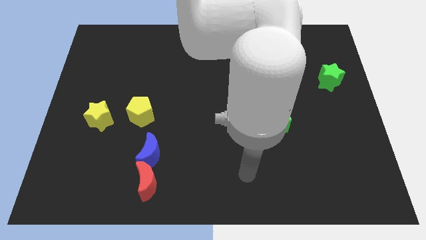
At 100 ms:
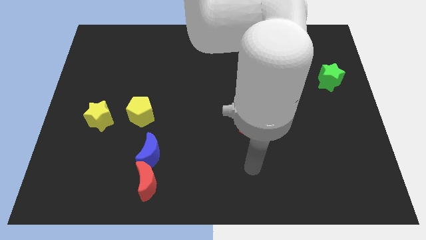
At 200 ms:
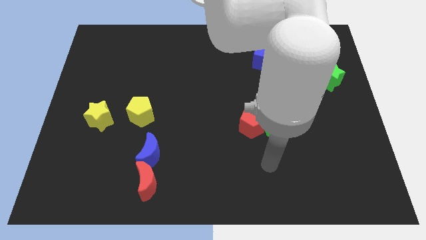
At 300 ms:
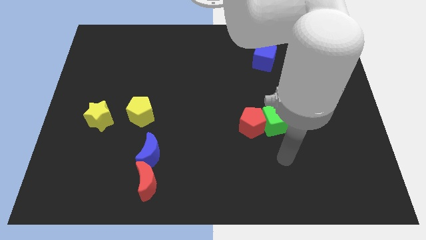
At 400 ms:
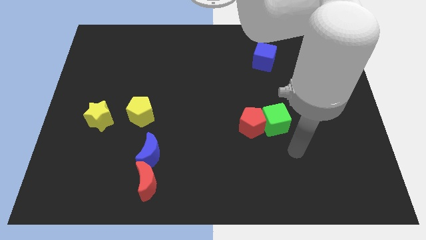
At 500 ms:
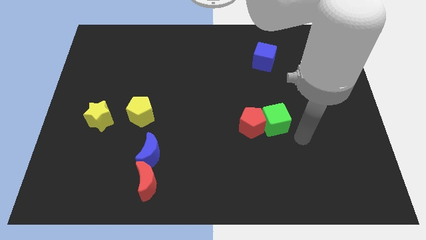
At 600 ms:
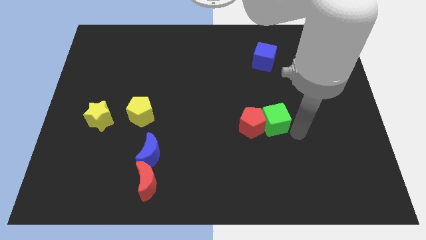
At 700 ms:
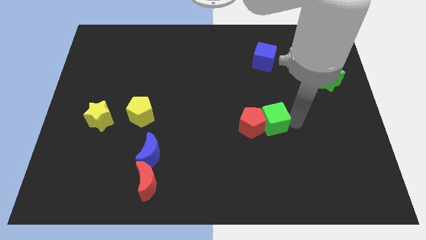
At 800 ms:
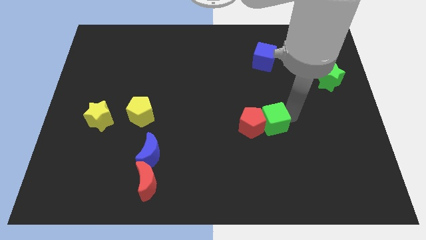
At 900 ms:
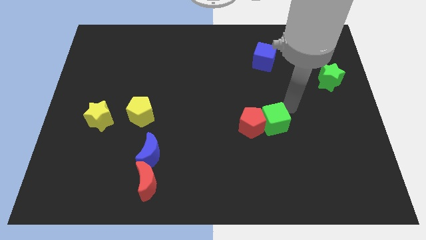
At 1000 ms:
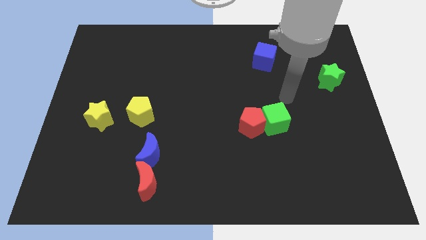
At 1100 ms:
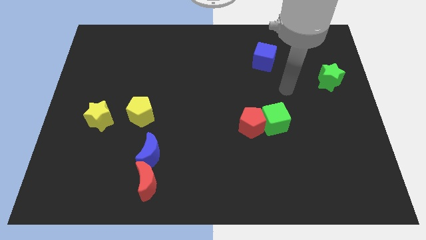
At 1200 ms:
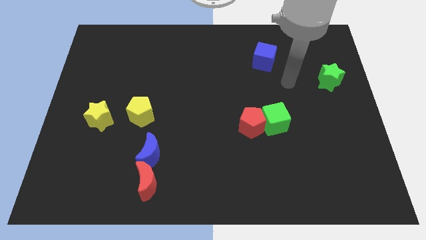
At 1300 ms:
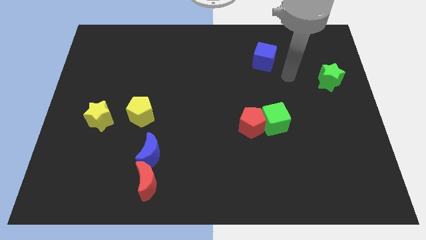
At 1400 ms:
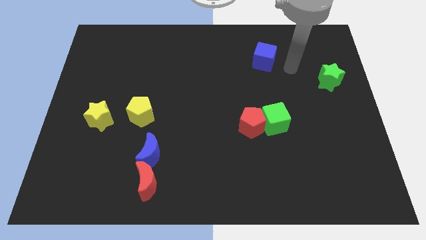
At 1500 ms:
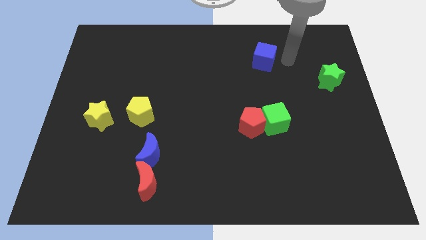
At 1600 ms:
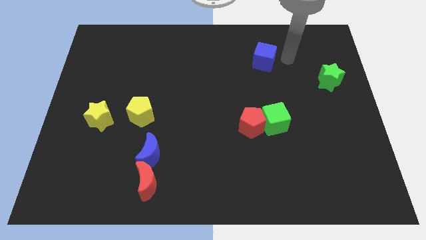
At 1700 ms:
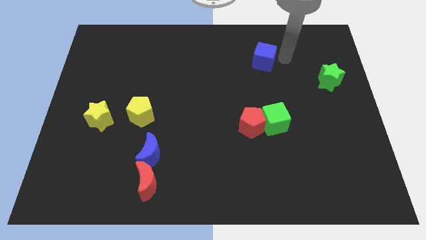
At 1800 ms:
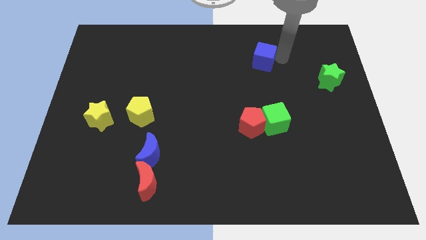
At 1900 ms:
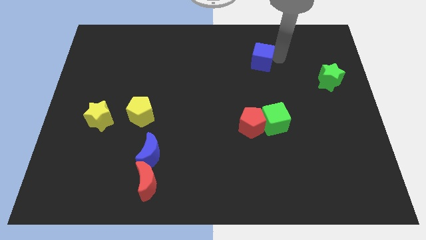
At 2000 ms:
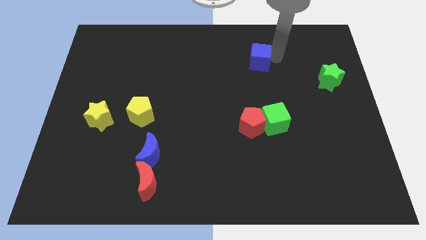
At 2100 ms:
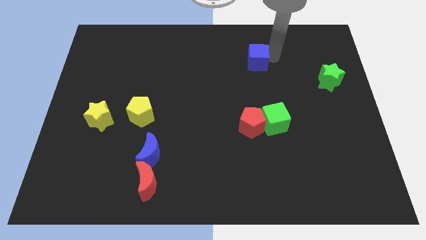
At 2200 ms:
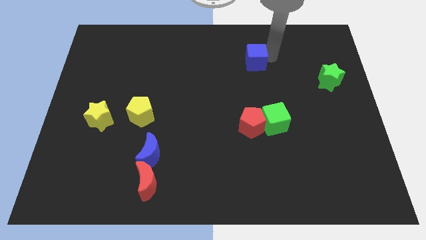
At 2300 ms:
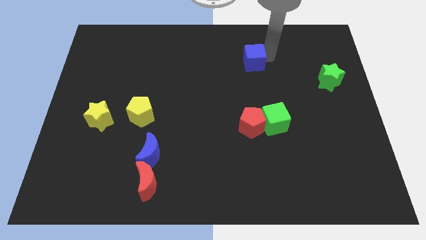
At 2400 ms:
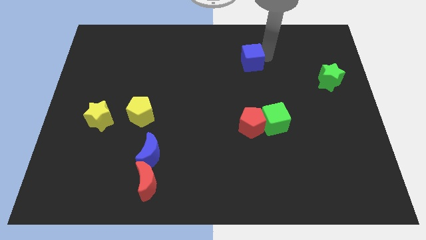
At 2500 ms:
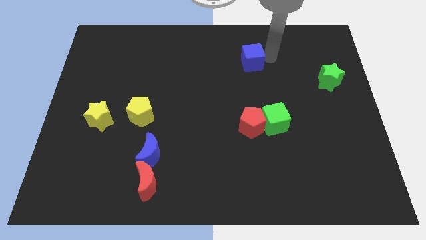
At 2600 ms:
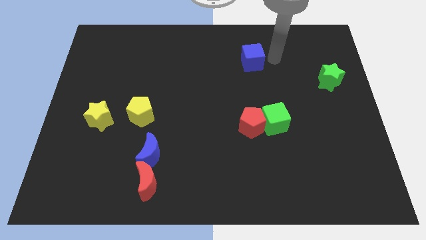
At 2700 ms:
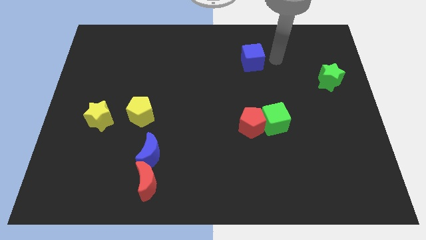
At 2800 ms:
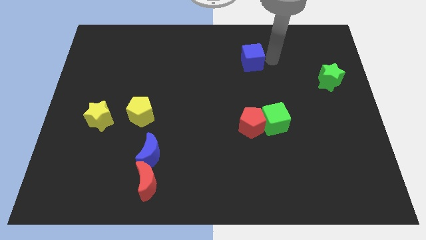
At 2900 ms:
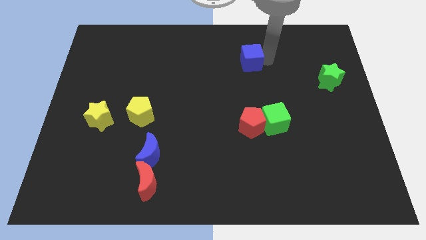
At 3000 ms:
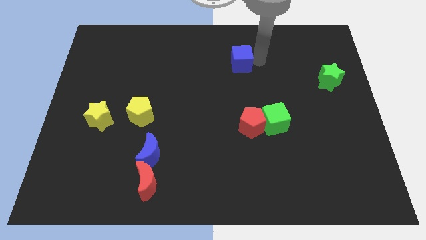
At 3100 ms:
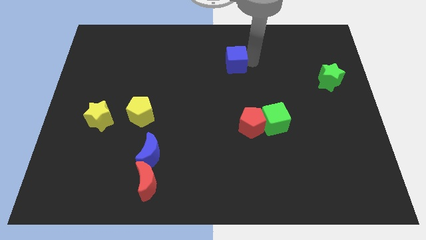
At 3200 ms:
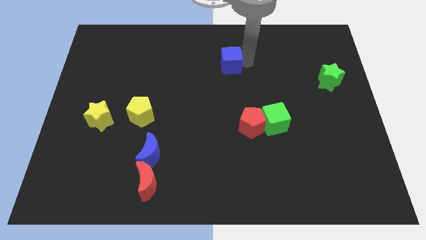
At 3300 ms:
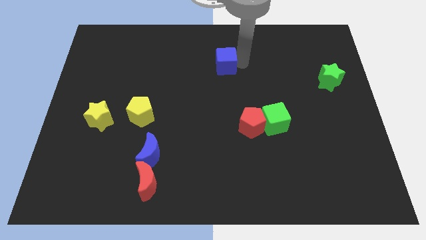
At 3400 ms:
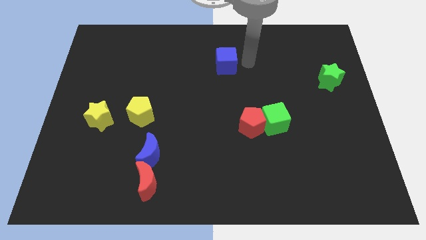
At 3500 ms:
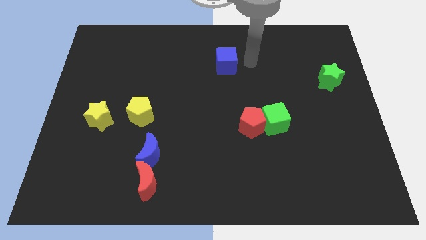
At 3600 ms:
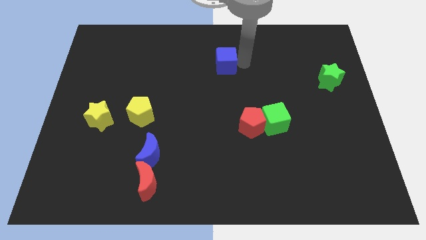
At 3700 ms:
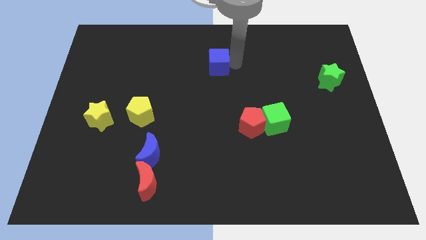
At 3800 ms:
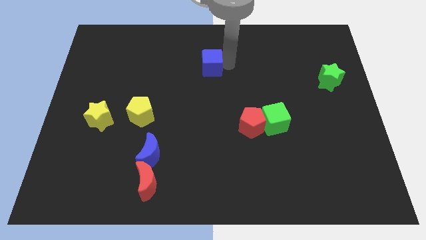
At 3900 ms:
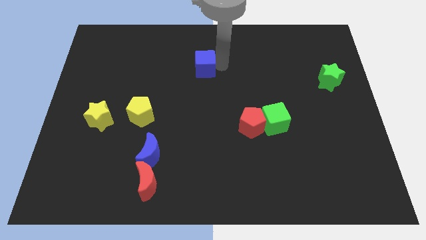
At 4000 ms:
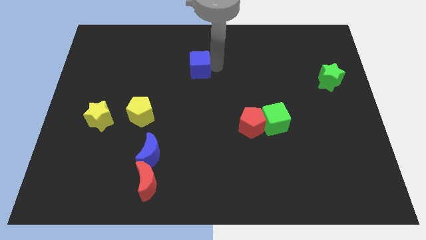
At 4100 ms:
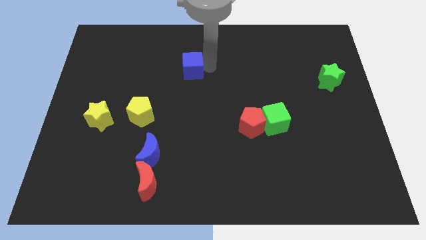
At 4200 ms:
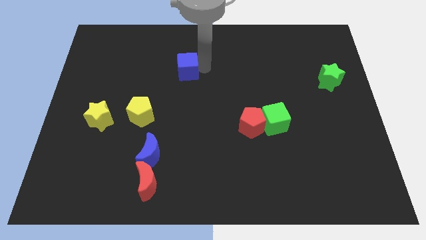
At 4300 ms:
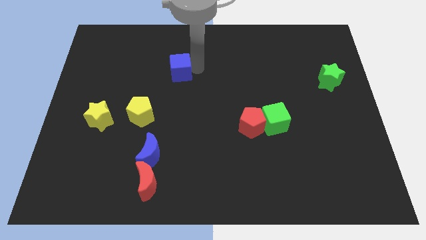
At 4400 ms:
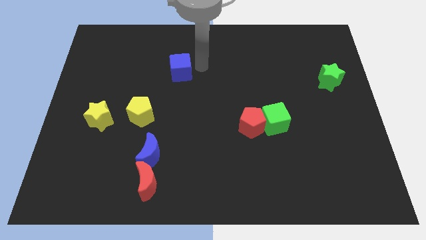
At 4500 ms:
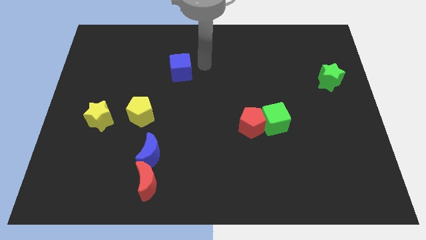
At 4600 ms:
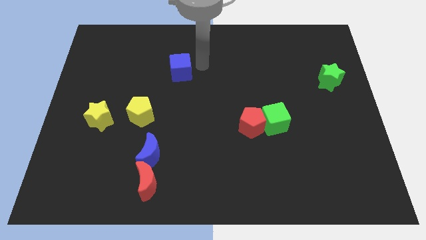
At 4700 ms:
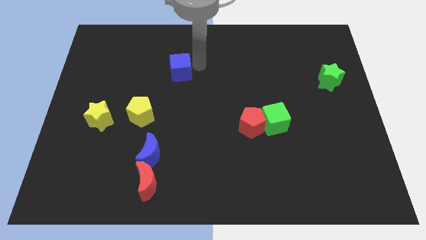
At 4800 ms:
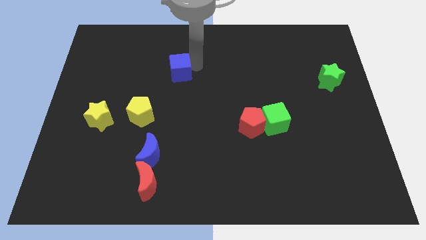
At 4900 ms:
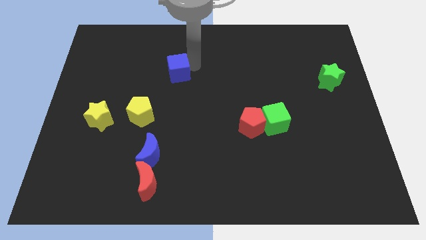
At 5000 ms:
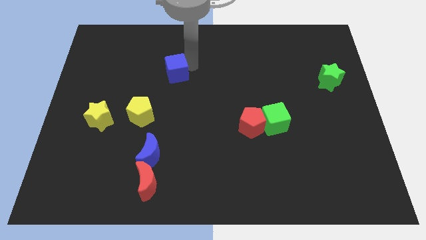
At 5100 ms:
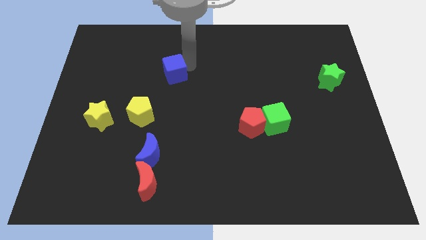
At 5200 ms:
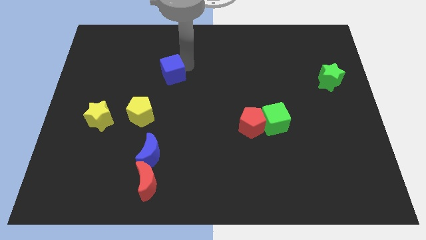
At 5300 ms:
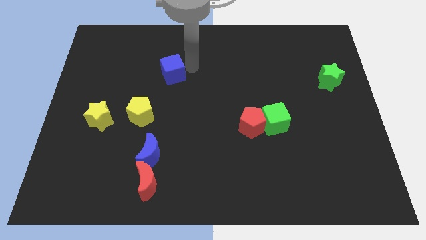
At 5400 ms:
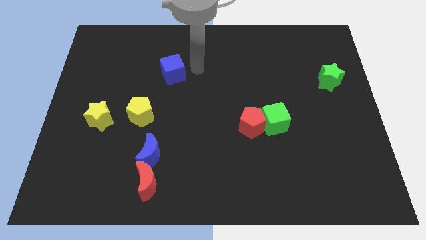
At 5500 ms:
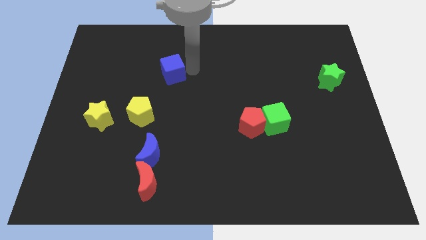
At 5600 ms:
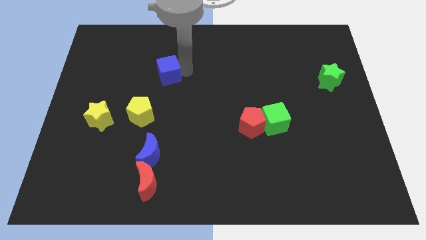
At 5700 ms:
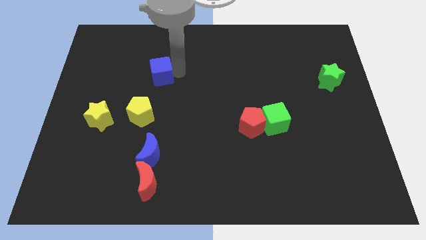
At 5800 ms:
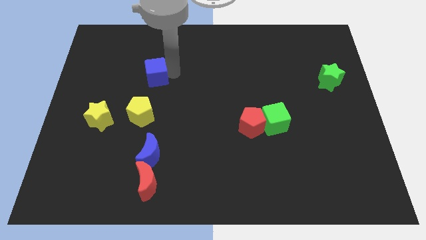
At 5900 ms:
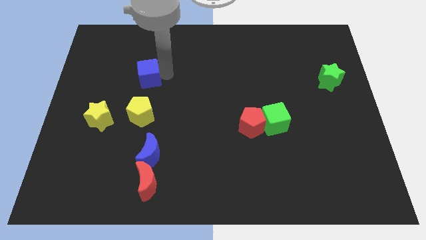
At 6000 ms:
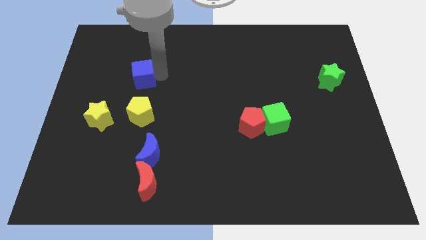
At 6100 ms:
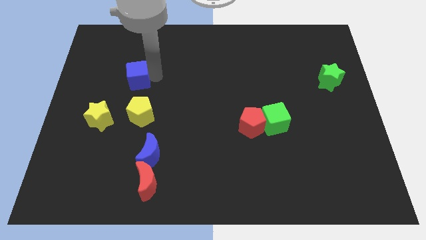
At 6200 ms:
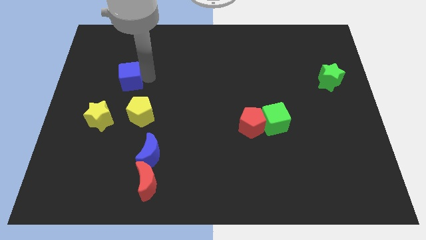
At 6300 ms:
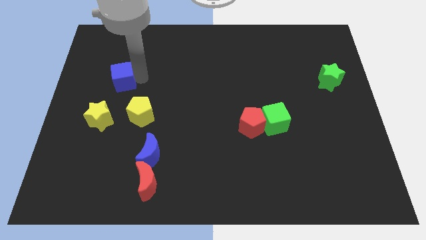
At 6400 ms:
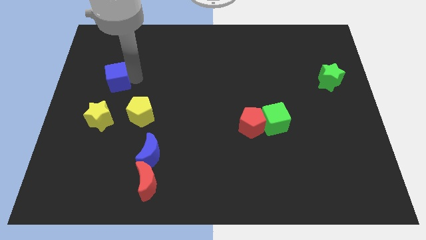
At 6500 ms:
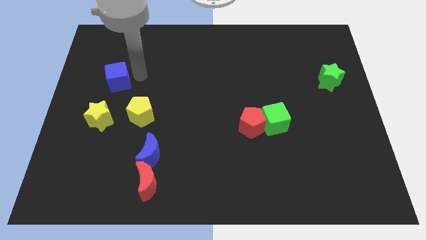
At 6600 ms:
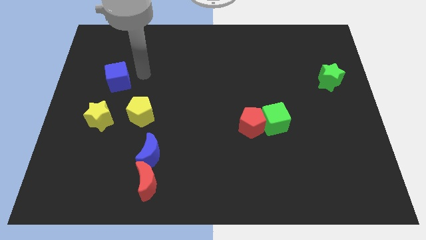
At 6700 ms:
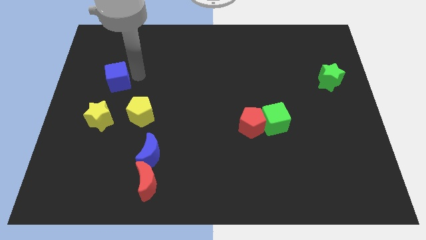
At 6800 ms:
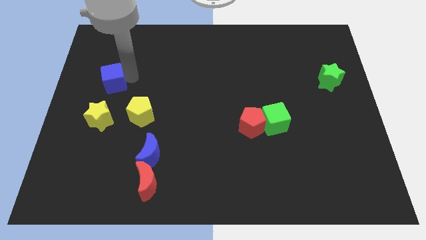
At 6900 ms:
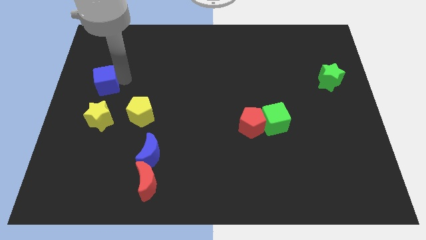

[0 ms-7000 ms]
move the blue cube to the left side
